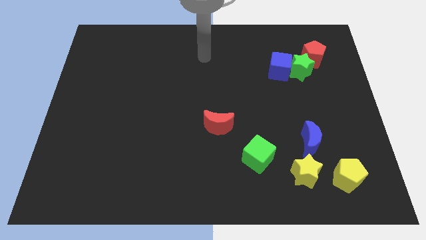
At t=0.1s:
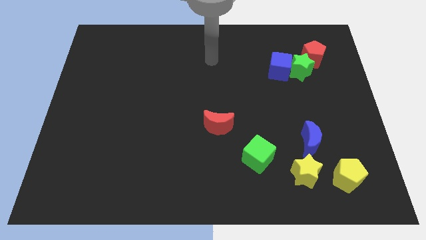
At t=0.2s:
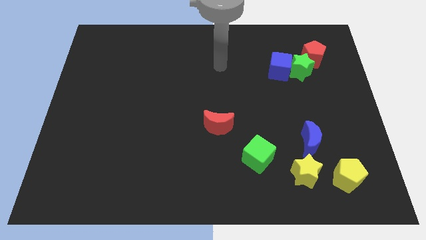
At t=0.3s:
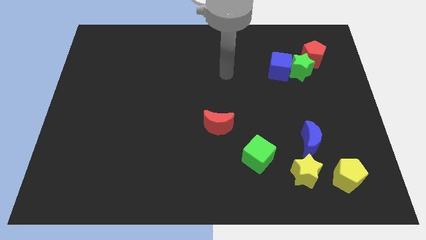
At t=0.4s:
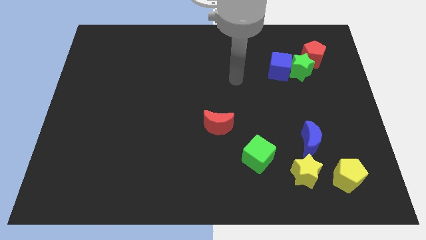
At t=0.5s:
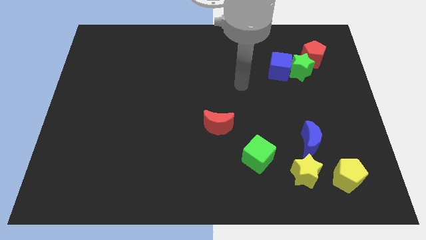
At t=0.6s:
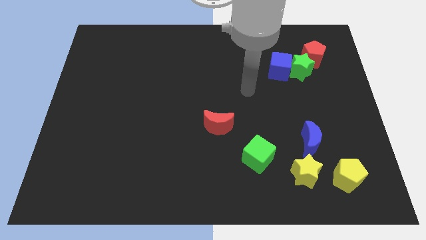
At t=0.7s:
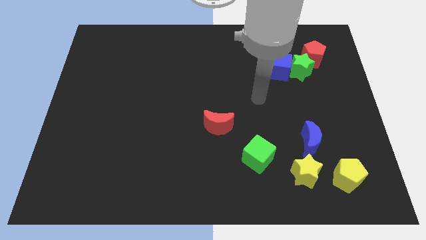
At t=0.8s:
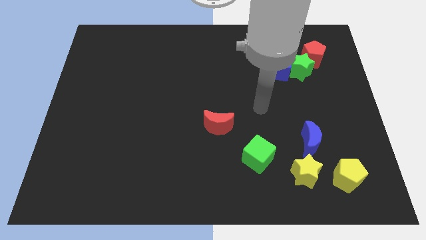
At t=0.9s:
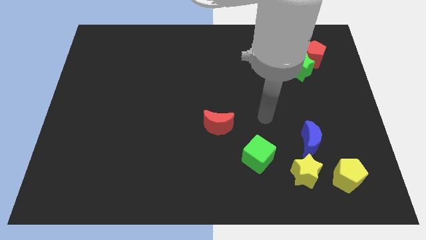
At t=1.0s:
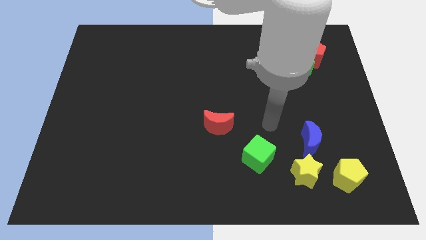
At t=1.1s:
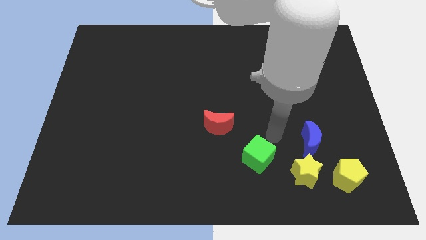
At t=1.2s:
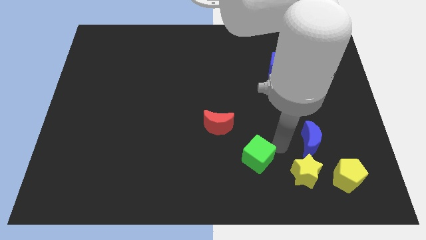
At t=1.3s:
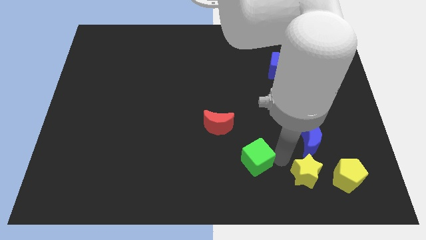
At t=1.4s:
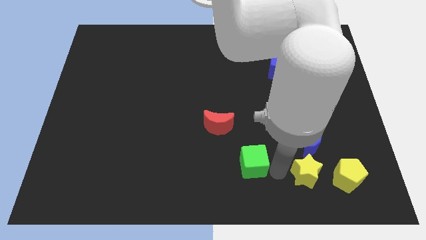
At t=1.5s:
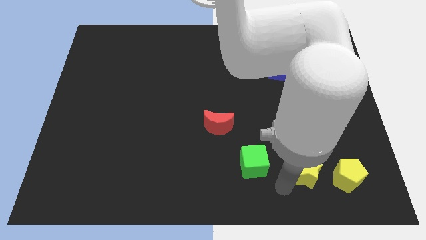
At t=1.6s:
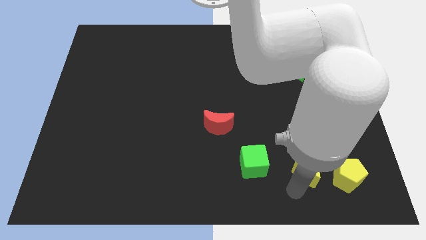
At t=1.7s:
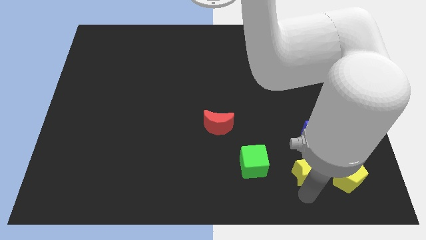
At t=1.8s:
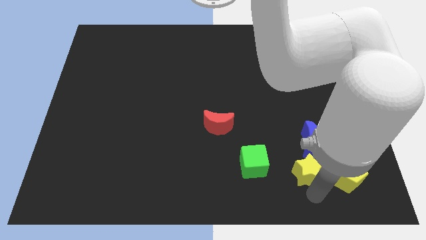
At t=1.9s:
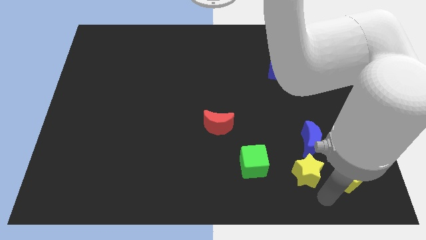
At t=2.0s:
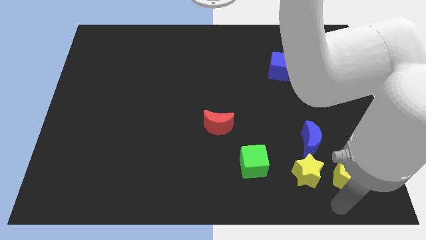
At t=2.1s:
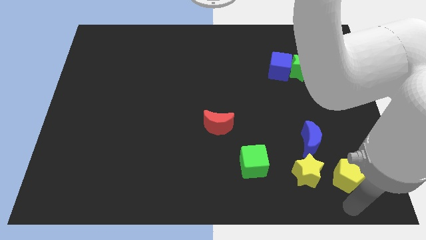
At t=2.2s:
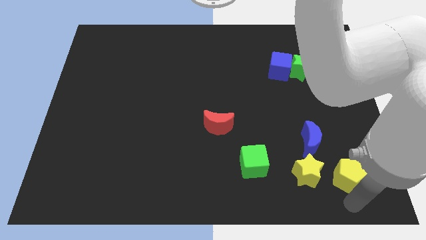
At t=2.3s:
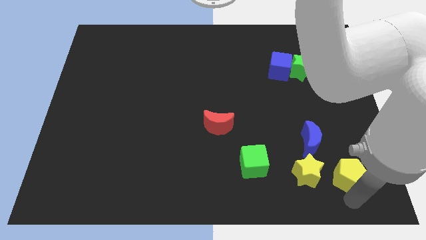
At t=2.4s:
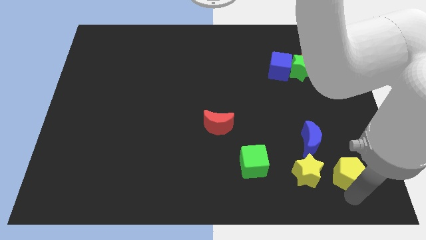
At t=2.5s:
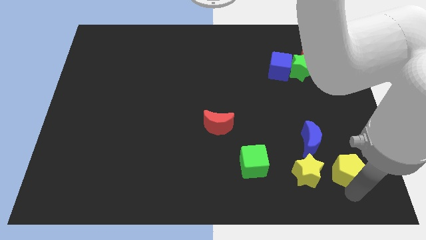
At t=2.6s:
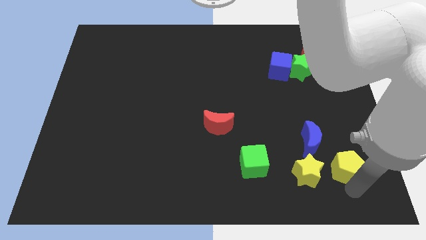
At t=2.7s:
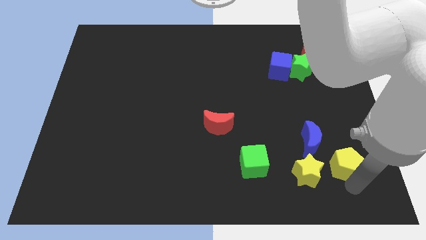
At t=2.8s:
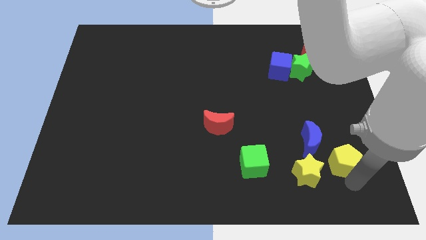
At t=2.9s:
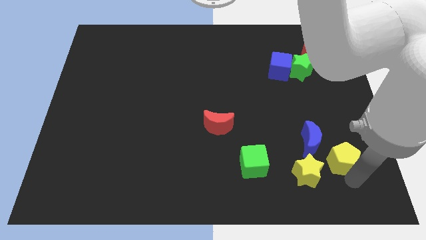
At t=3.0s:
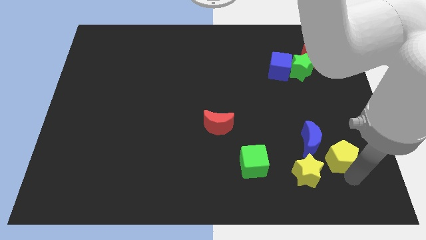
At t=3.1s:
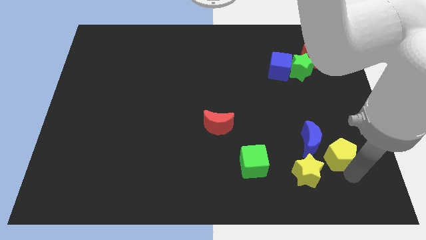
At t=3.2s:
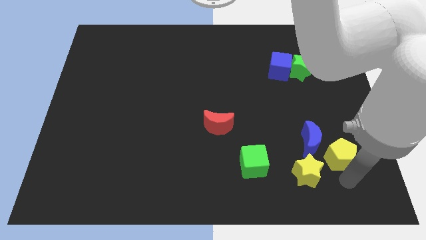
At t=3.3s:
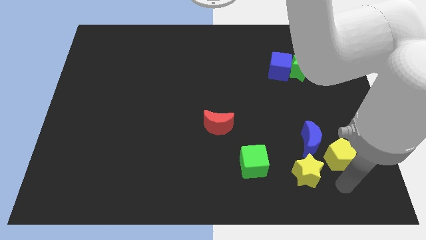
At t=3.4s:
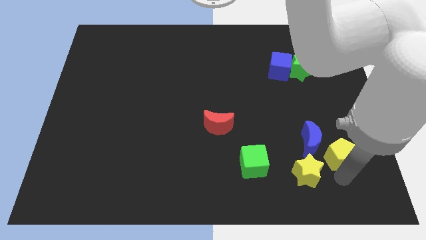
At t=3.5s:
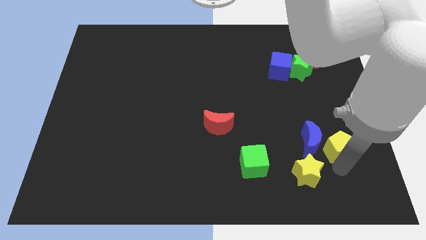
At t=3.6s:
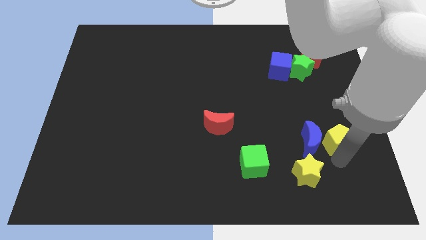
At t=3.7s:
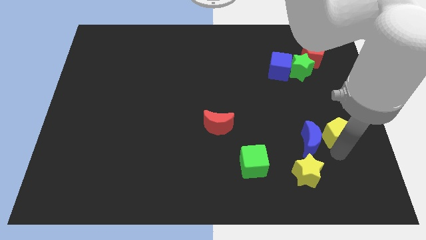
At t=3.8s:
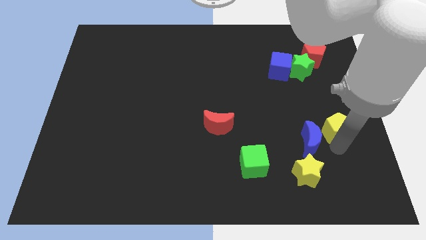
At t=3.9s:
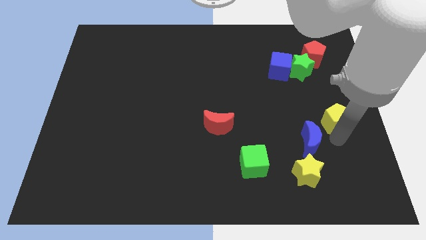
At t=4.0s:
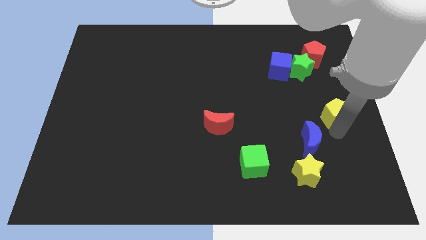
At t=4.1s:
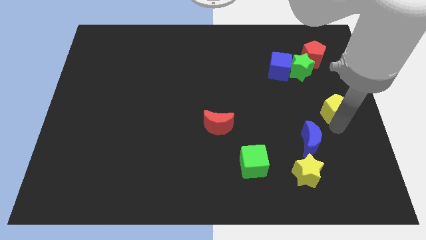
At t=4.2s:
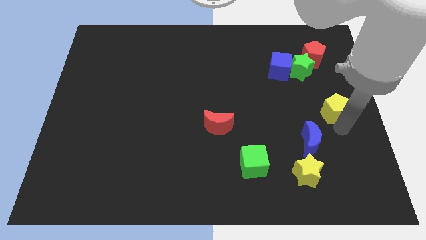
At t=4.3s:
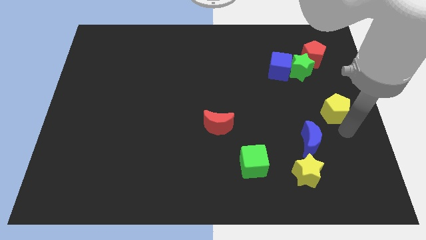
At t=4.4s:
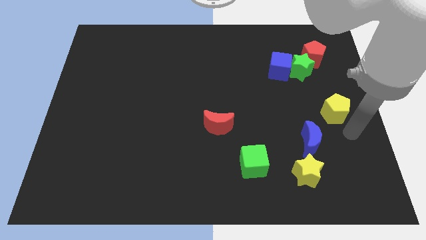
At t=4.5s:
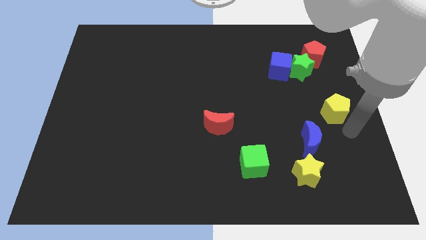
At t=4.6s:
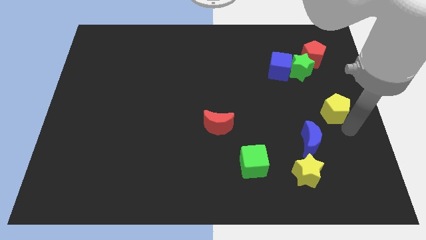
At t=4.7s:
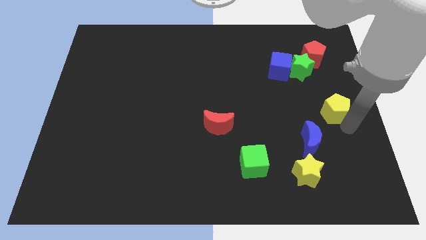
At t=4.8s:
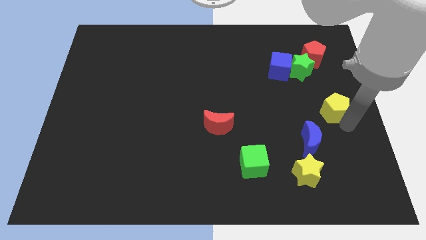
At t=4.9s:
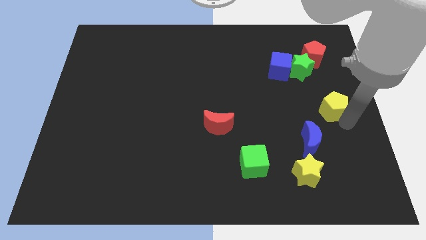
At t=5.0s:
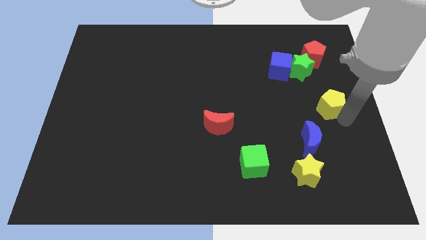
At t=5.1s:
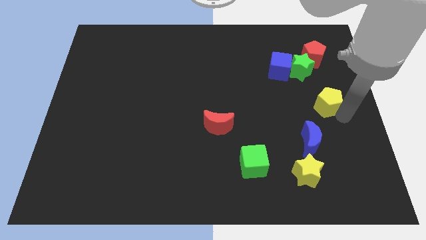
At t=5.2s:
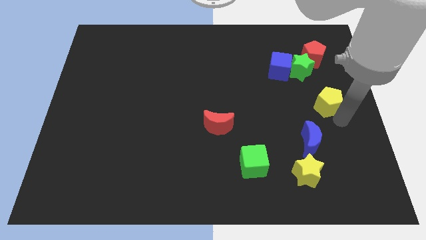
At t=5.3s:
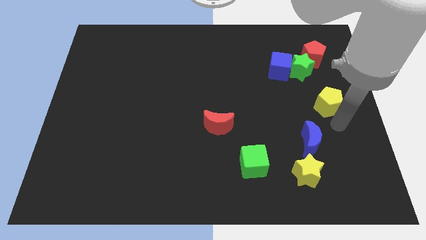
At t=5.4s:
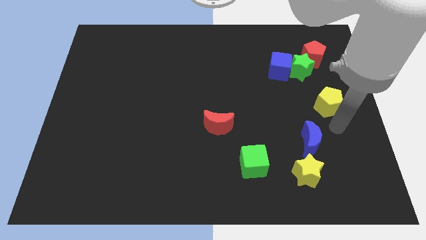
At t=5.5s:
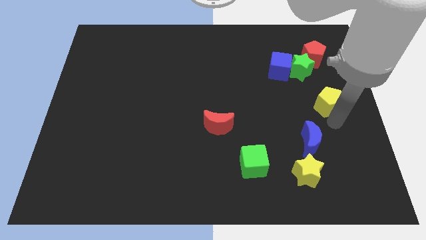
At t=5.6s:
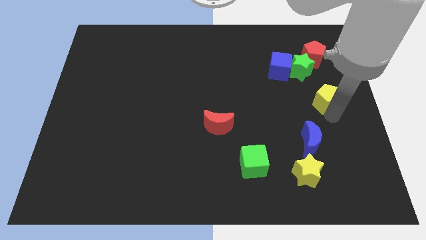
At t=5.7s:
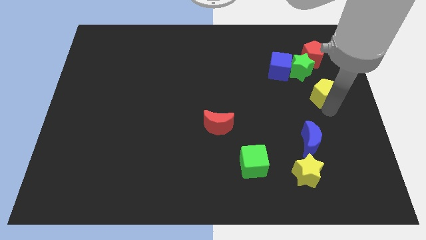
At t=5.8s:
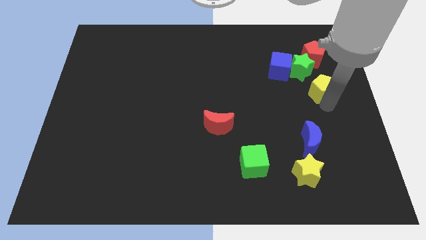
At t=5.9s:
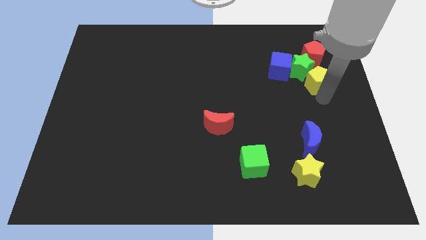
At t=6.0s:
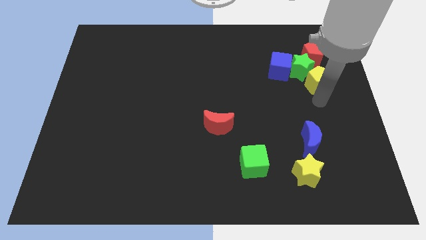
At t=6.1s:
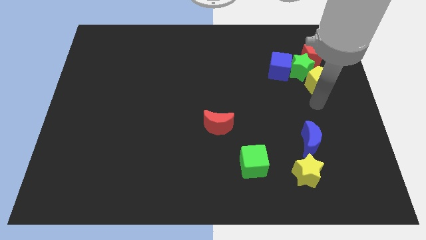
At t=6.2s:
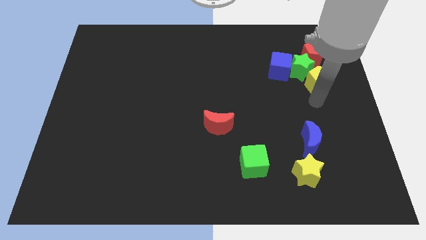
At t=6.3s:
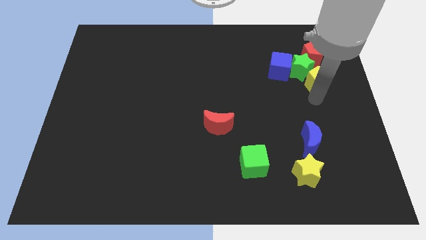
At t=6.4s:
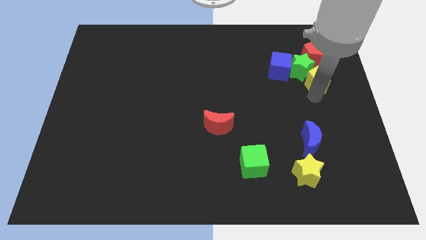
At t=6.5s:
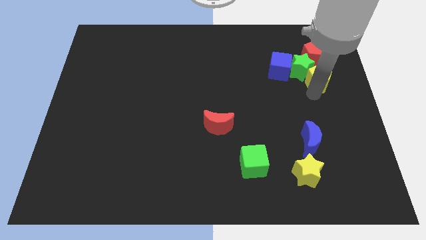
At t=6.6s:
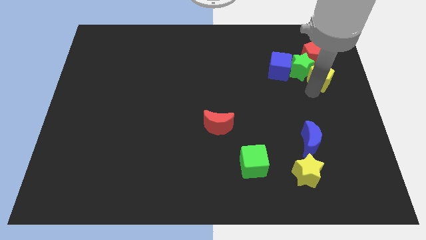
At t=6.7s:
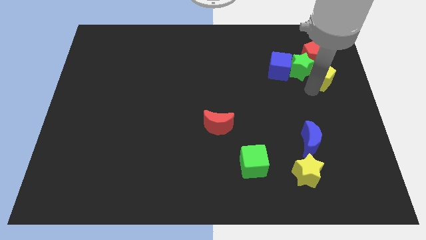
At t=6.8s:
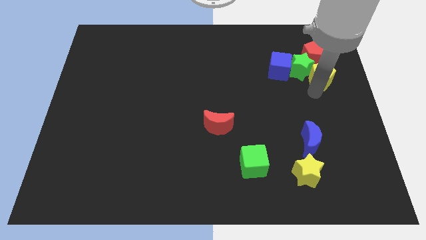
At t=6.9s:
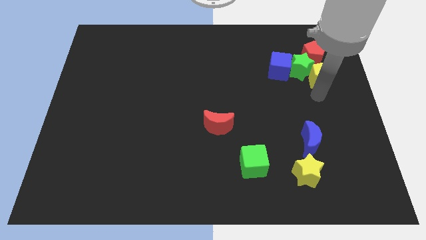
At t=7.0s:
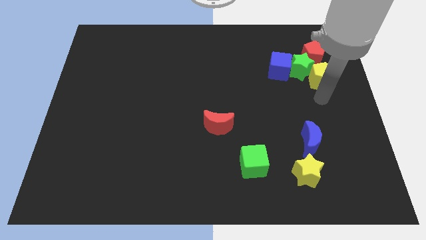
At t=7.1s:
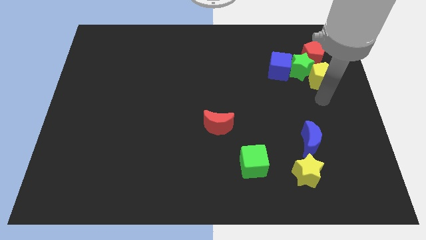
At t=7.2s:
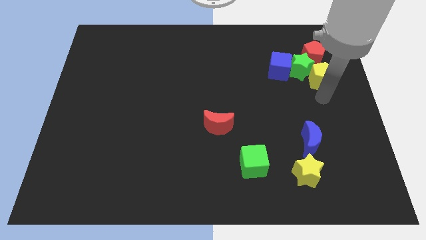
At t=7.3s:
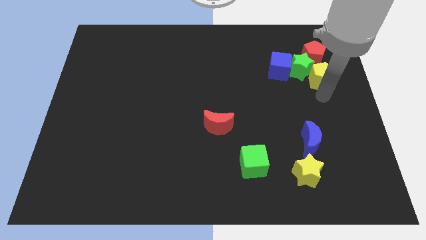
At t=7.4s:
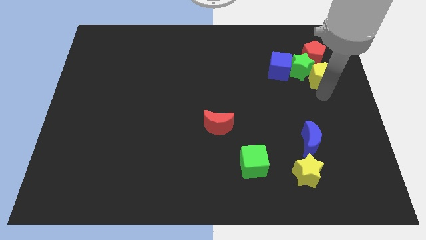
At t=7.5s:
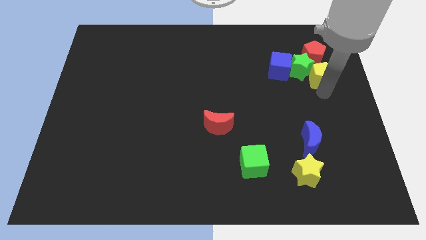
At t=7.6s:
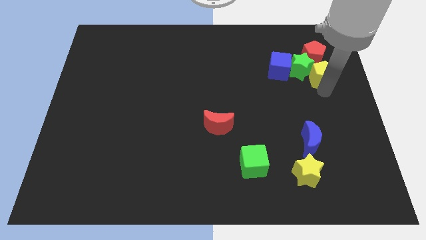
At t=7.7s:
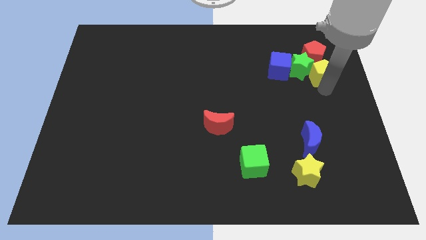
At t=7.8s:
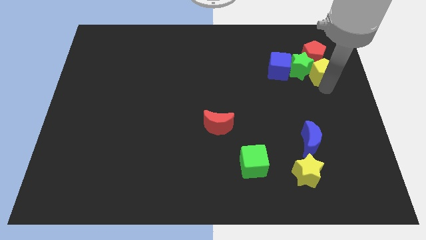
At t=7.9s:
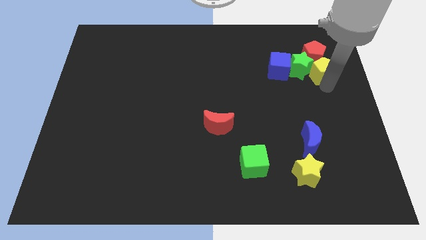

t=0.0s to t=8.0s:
slide the yellow pentagon towards the red pentagon
